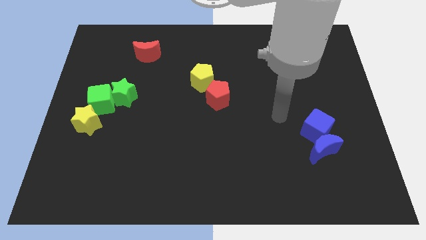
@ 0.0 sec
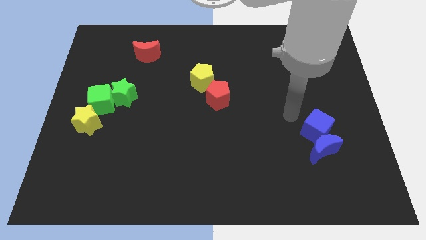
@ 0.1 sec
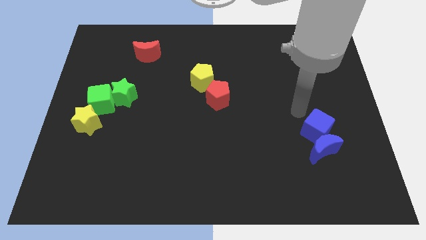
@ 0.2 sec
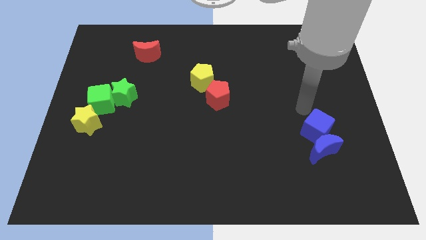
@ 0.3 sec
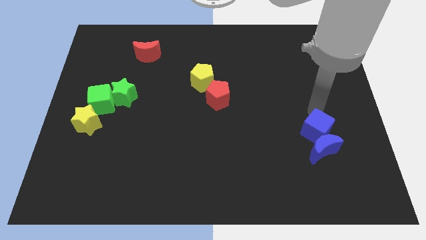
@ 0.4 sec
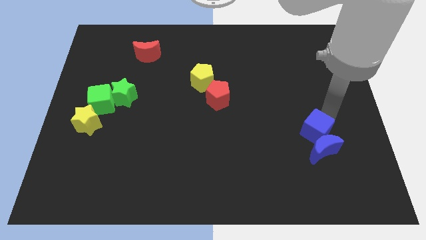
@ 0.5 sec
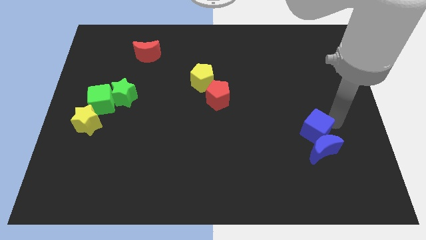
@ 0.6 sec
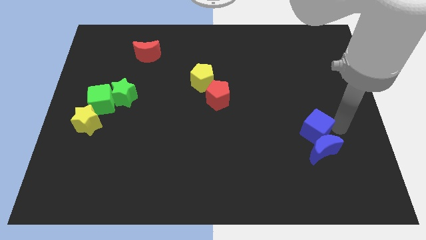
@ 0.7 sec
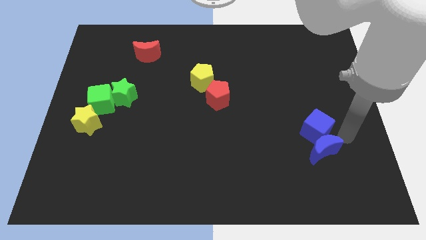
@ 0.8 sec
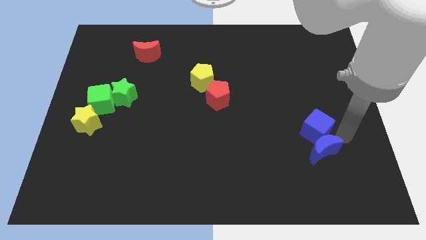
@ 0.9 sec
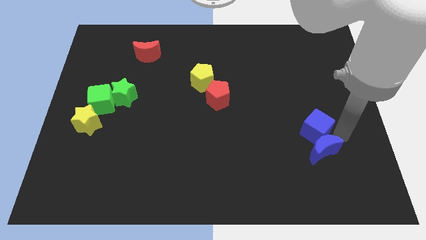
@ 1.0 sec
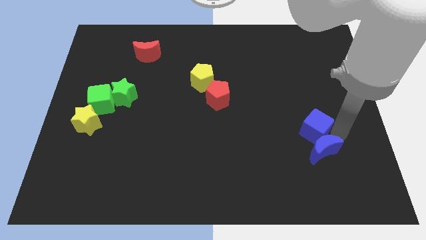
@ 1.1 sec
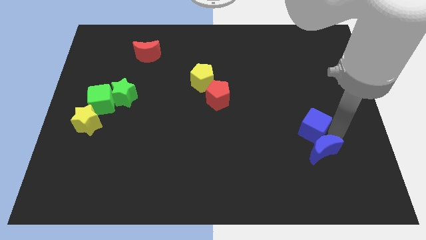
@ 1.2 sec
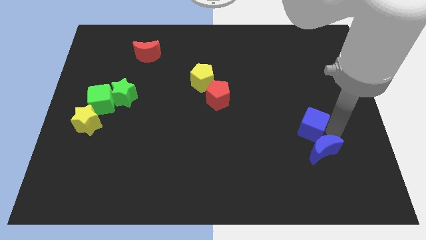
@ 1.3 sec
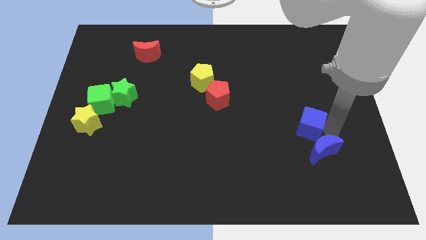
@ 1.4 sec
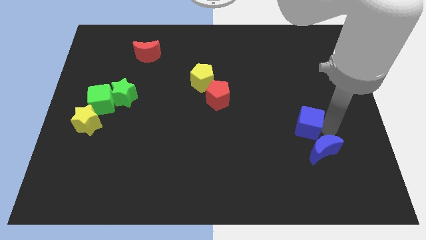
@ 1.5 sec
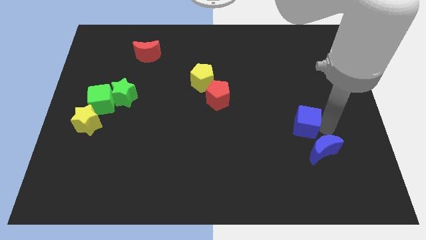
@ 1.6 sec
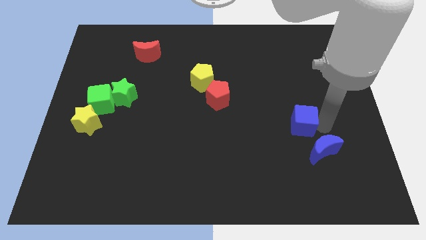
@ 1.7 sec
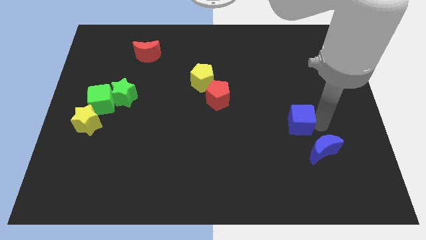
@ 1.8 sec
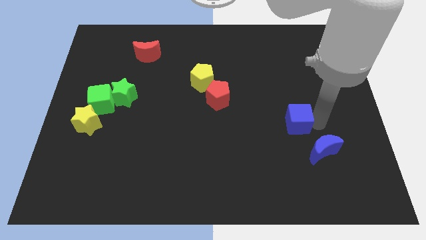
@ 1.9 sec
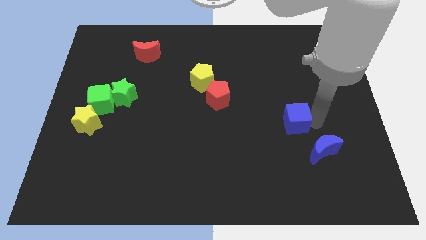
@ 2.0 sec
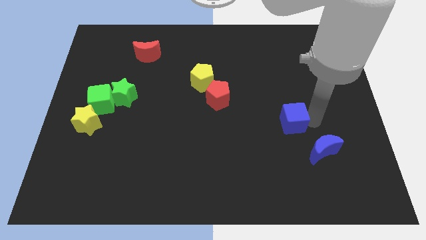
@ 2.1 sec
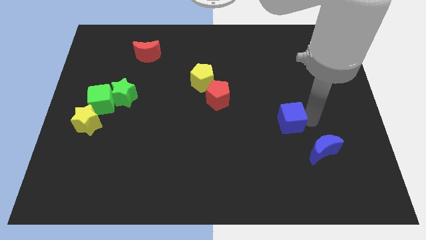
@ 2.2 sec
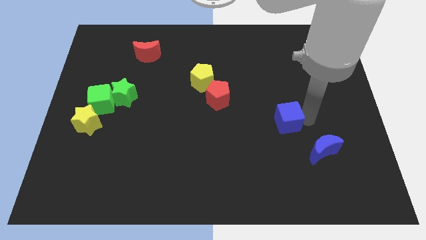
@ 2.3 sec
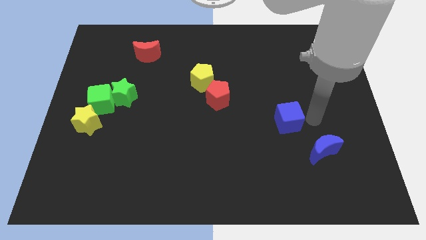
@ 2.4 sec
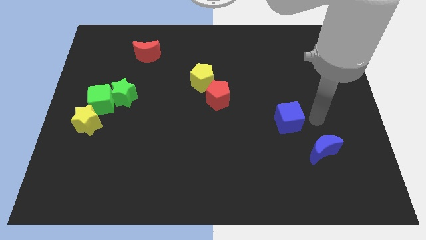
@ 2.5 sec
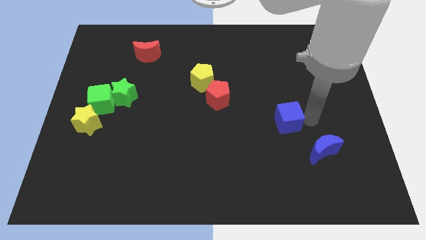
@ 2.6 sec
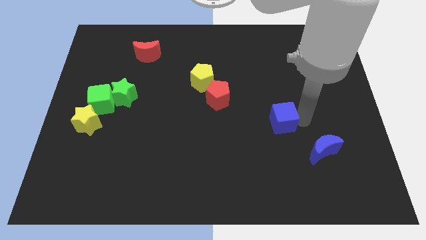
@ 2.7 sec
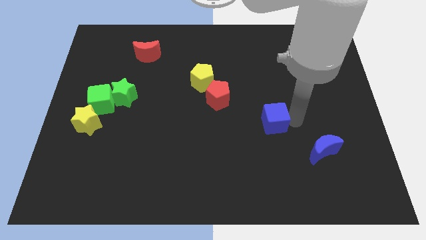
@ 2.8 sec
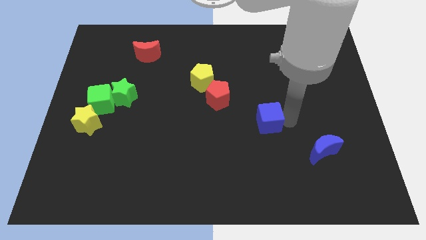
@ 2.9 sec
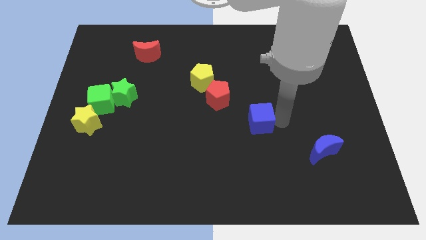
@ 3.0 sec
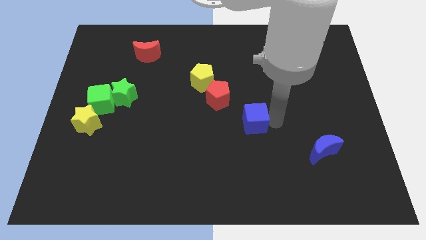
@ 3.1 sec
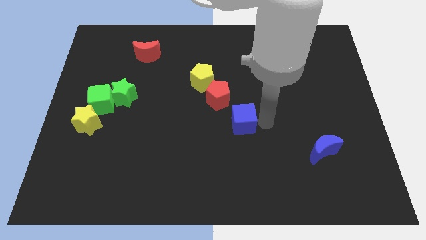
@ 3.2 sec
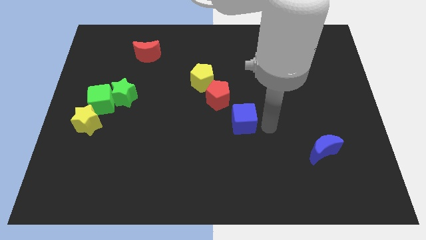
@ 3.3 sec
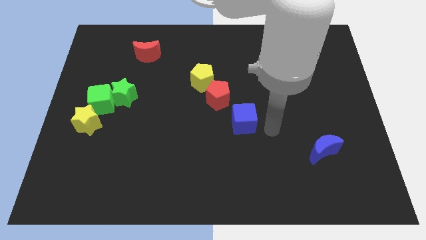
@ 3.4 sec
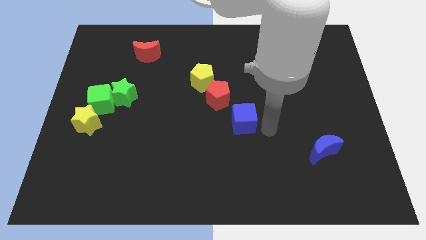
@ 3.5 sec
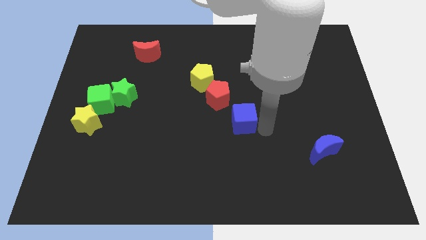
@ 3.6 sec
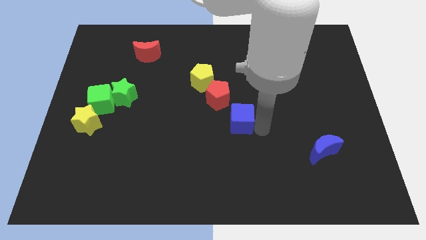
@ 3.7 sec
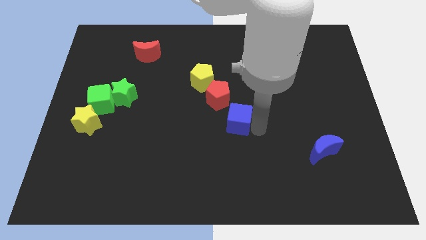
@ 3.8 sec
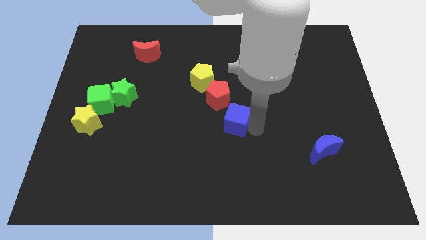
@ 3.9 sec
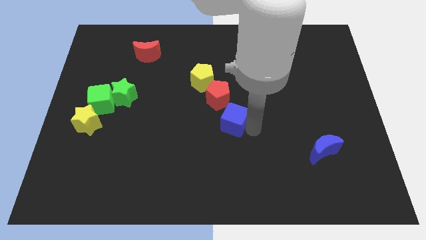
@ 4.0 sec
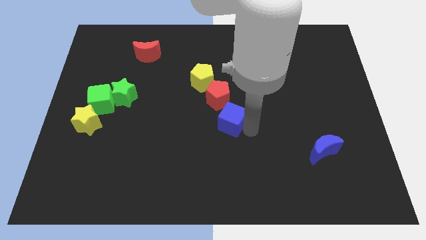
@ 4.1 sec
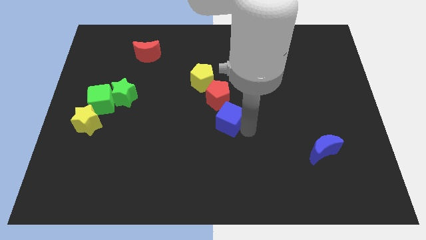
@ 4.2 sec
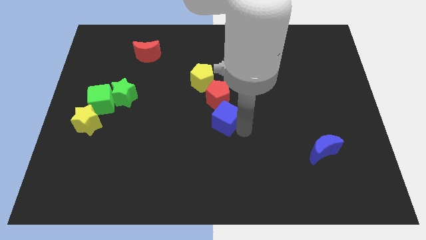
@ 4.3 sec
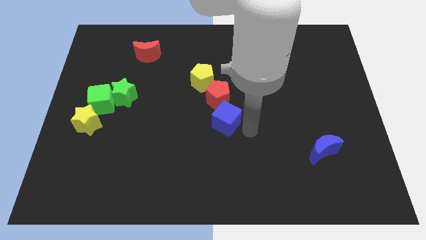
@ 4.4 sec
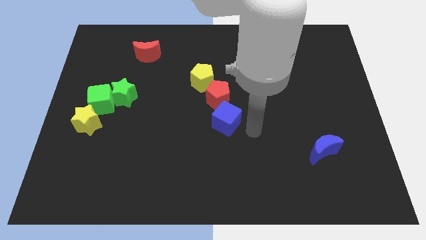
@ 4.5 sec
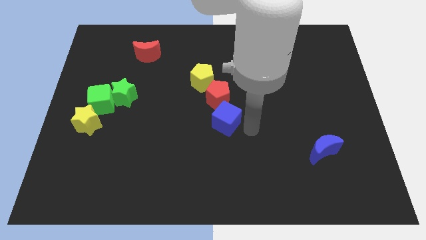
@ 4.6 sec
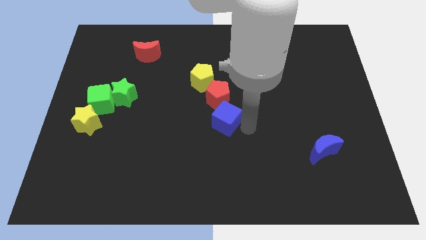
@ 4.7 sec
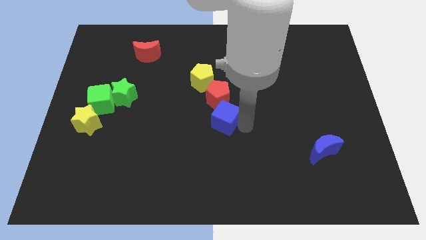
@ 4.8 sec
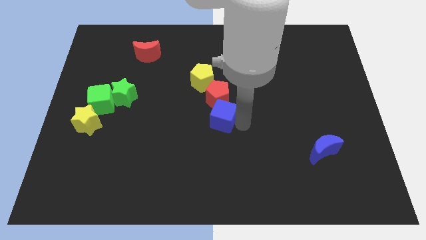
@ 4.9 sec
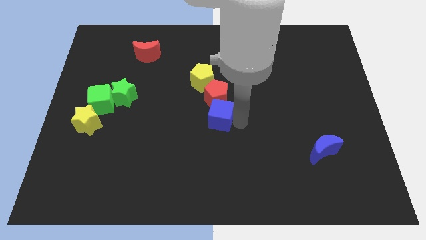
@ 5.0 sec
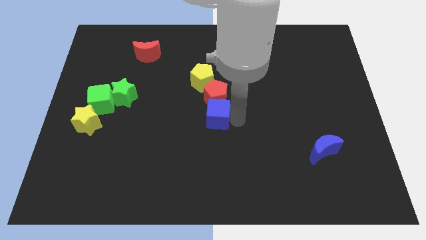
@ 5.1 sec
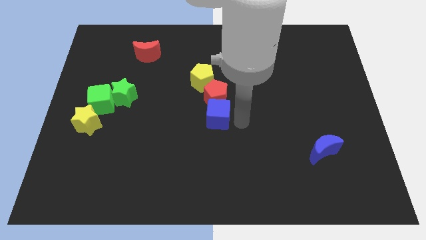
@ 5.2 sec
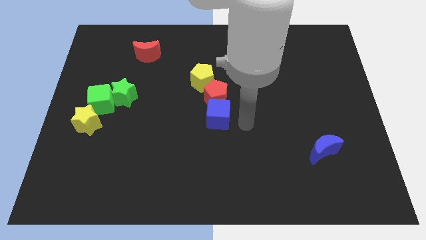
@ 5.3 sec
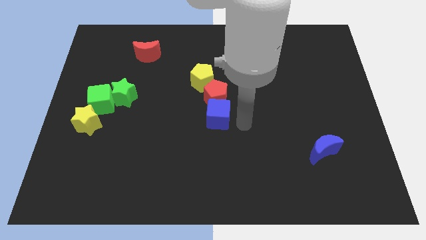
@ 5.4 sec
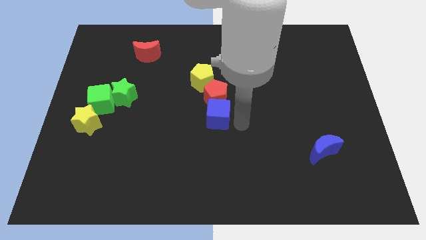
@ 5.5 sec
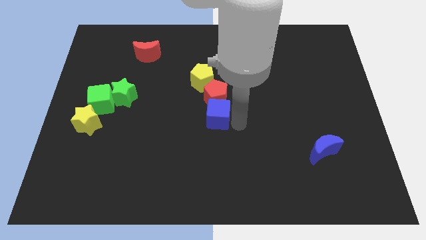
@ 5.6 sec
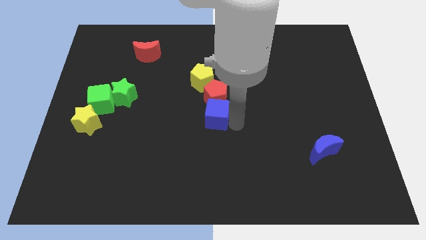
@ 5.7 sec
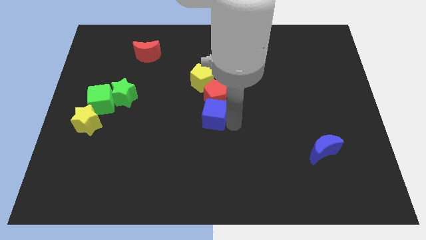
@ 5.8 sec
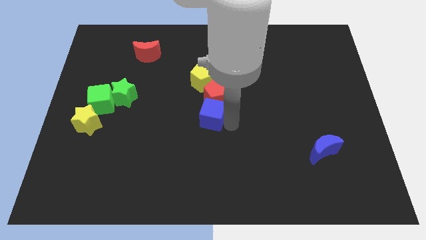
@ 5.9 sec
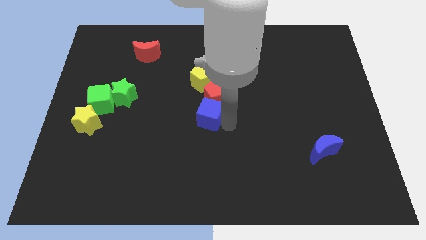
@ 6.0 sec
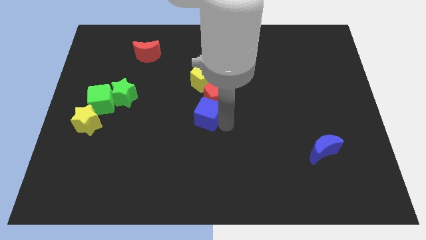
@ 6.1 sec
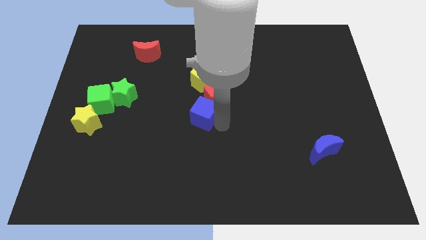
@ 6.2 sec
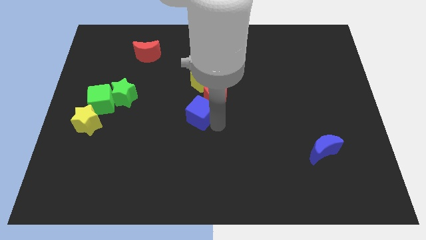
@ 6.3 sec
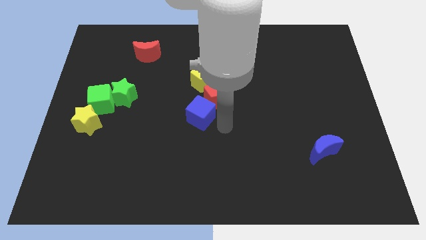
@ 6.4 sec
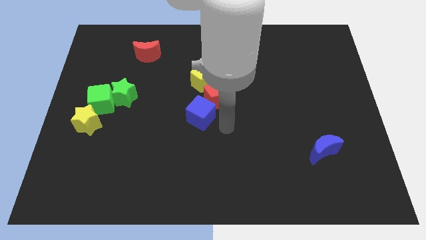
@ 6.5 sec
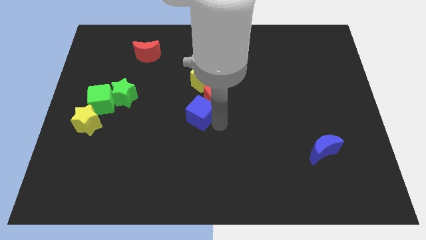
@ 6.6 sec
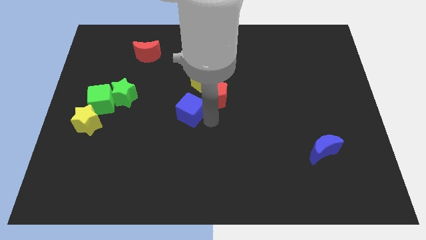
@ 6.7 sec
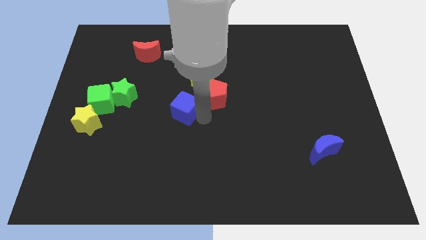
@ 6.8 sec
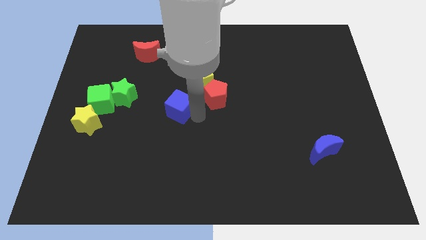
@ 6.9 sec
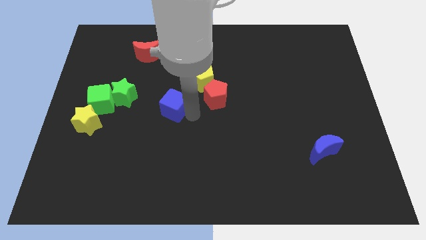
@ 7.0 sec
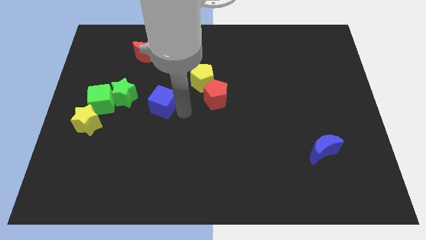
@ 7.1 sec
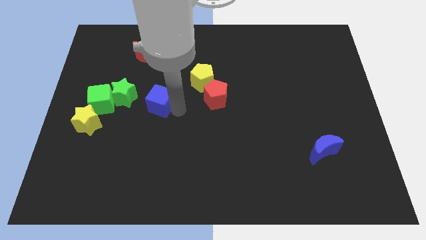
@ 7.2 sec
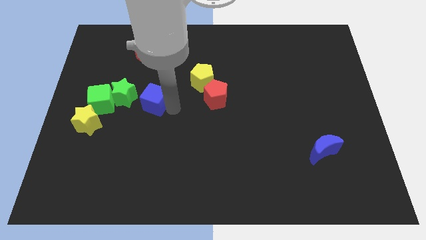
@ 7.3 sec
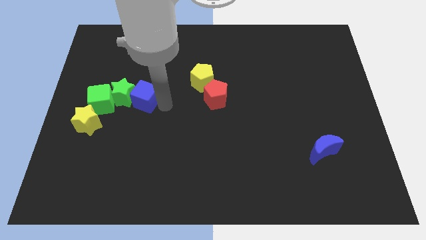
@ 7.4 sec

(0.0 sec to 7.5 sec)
move the blue cube close to the green star
